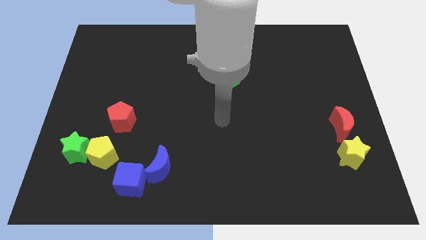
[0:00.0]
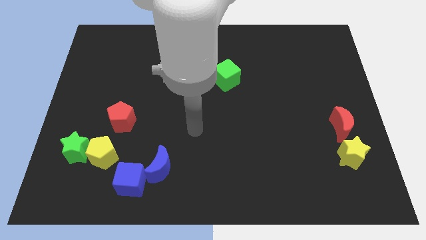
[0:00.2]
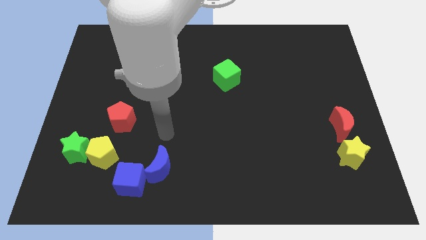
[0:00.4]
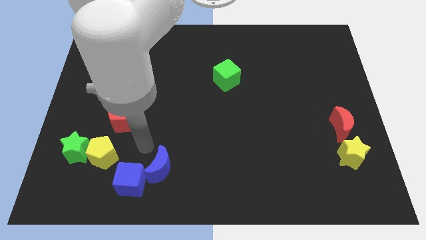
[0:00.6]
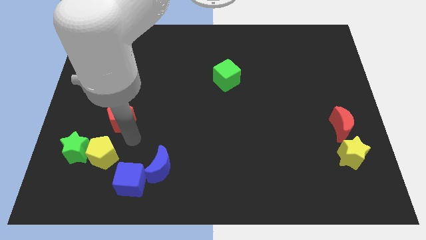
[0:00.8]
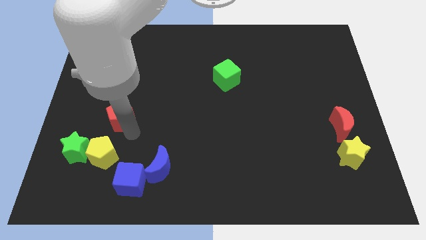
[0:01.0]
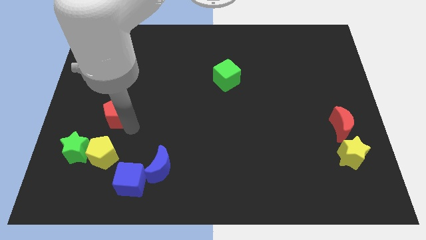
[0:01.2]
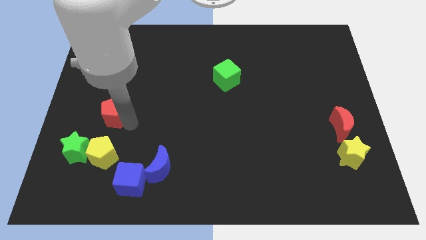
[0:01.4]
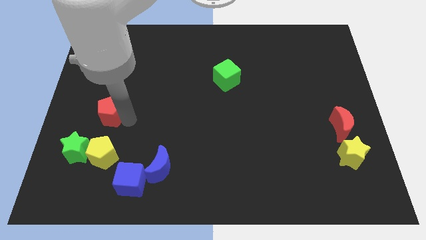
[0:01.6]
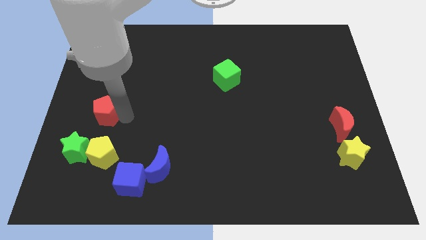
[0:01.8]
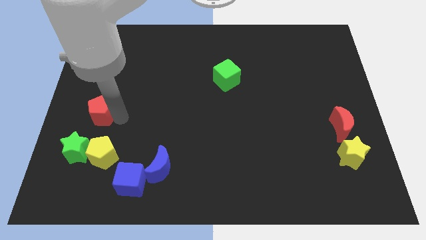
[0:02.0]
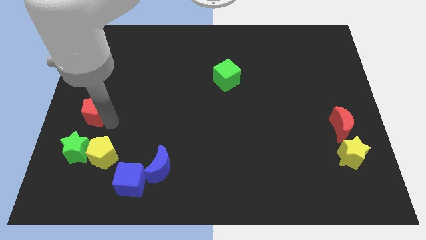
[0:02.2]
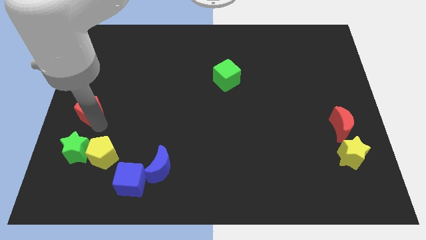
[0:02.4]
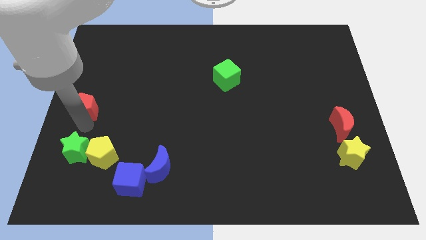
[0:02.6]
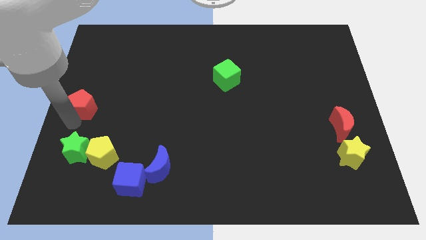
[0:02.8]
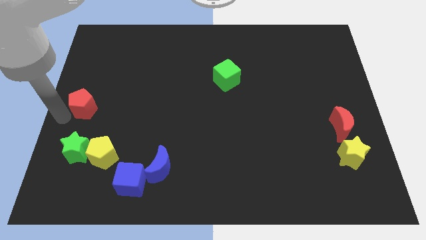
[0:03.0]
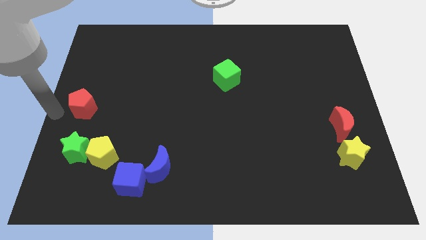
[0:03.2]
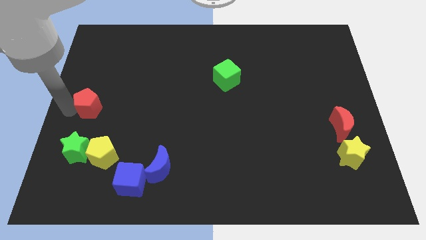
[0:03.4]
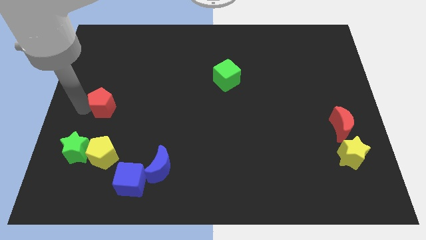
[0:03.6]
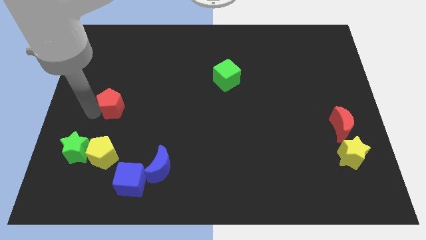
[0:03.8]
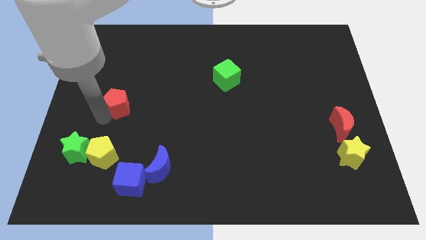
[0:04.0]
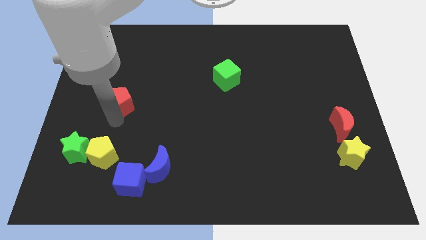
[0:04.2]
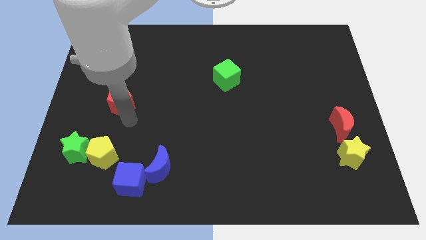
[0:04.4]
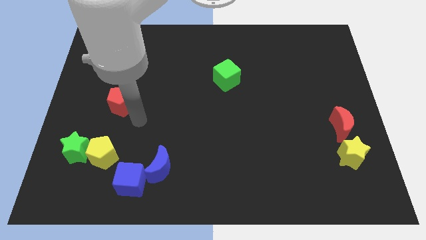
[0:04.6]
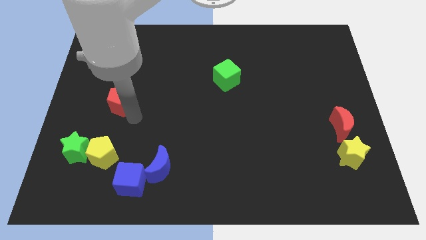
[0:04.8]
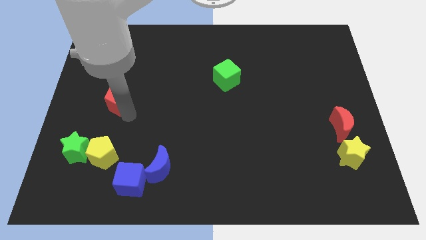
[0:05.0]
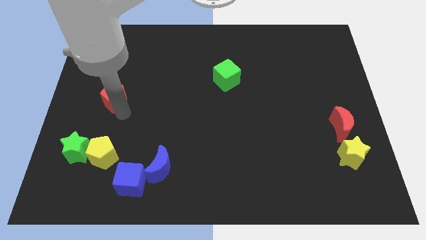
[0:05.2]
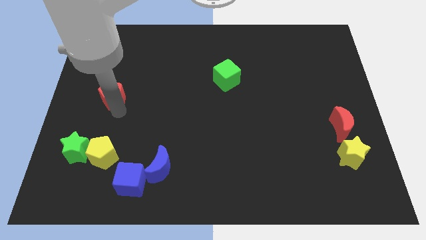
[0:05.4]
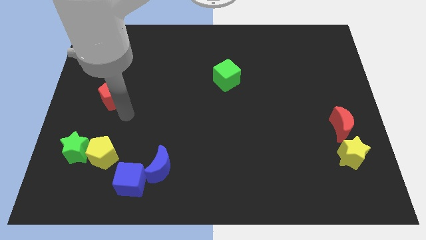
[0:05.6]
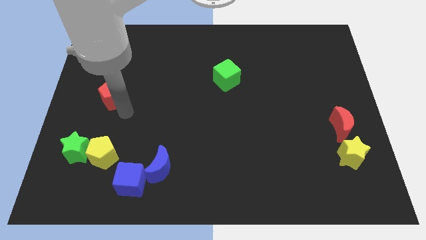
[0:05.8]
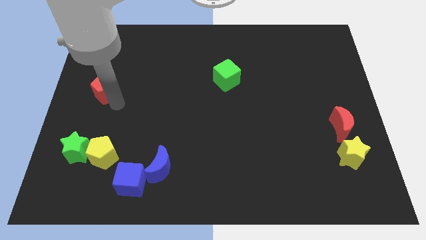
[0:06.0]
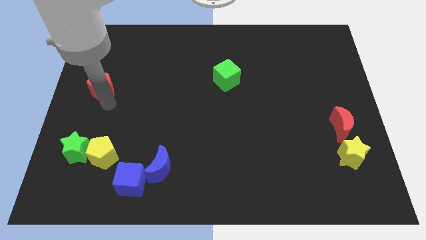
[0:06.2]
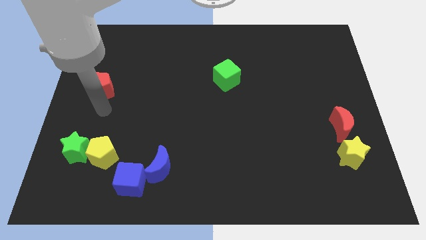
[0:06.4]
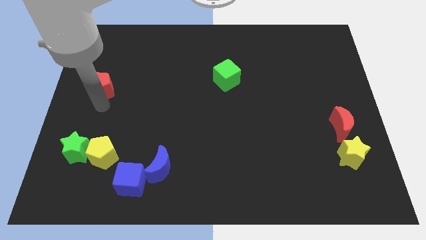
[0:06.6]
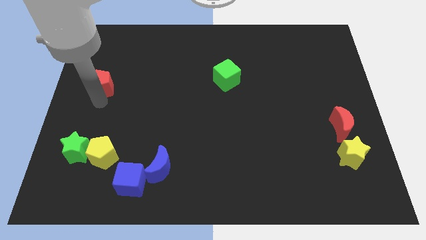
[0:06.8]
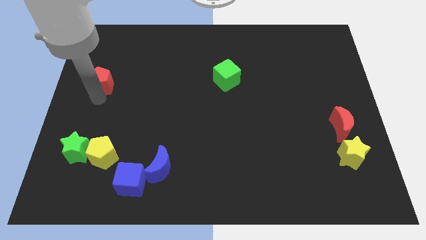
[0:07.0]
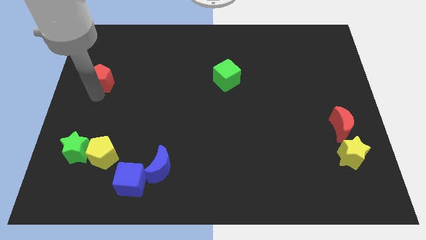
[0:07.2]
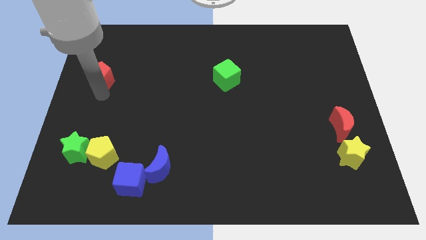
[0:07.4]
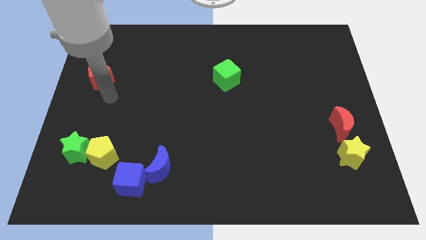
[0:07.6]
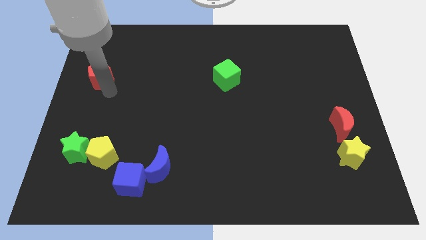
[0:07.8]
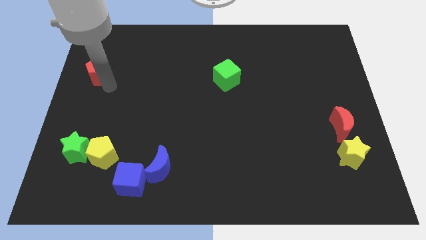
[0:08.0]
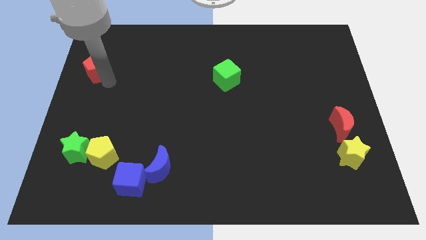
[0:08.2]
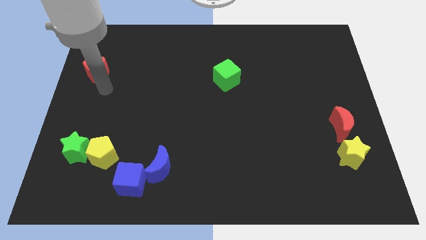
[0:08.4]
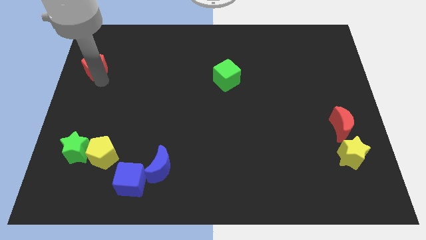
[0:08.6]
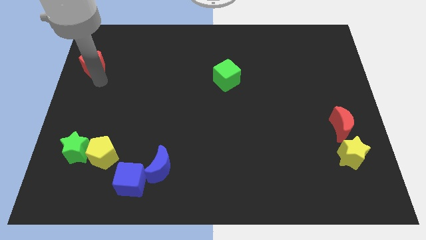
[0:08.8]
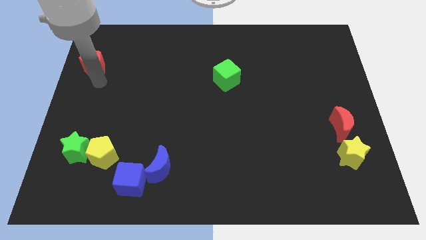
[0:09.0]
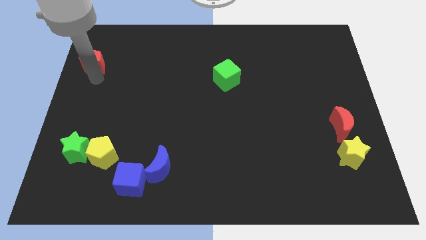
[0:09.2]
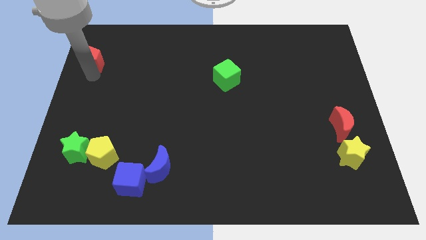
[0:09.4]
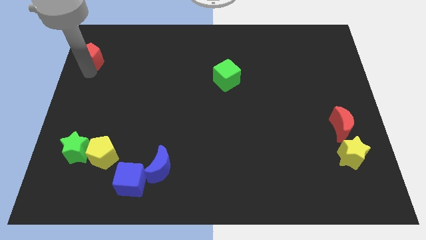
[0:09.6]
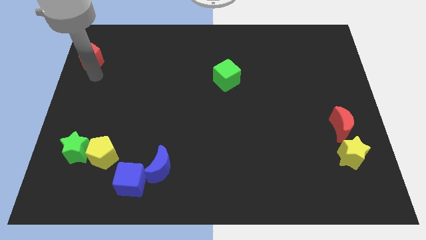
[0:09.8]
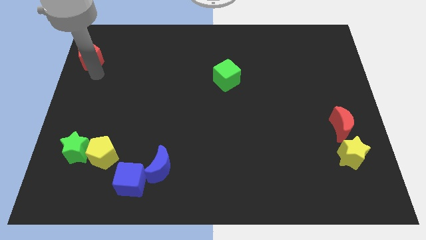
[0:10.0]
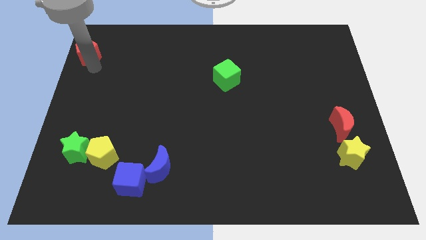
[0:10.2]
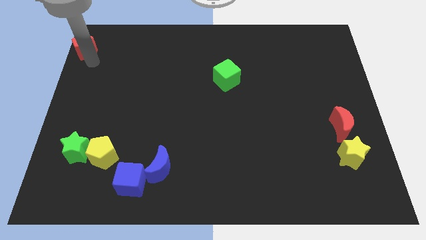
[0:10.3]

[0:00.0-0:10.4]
slide the red pentagon to the top left corner

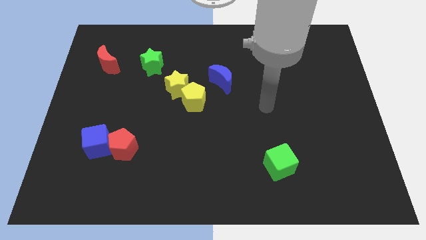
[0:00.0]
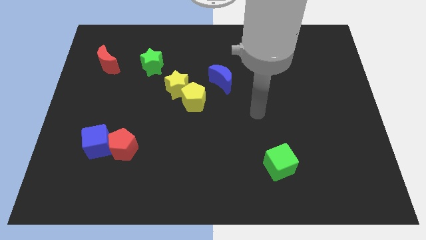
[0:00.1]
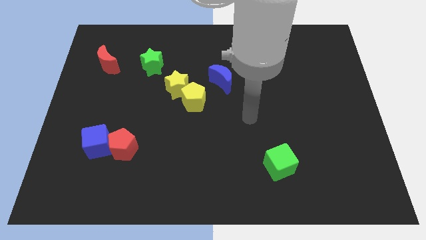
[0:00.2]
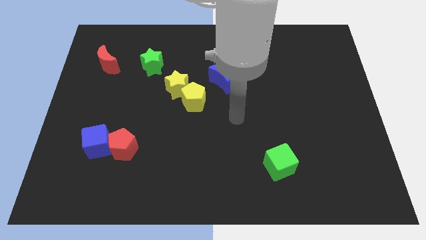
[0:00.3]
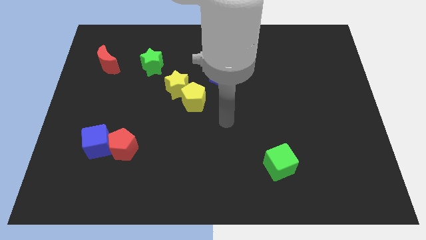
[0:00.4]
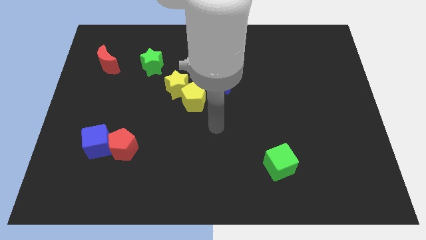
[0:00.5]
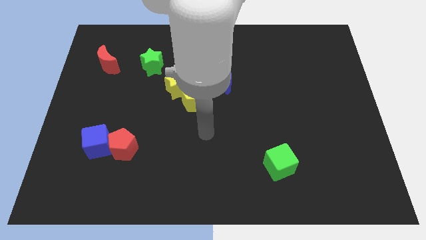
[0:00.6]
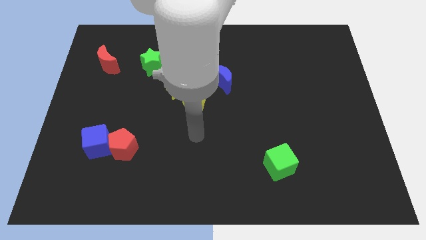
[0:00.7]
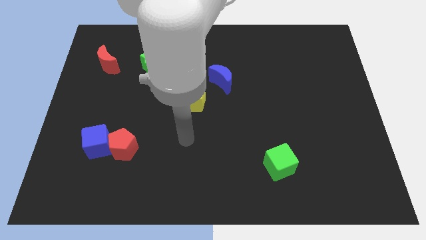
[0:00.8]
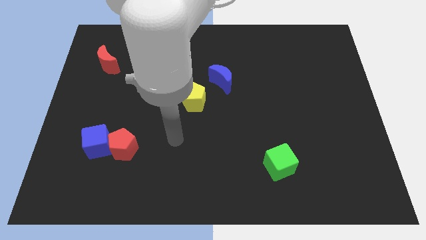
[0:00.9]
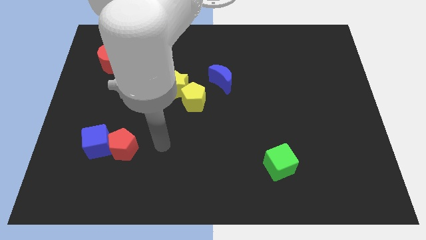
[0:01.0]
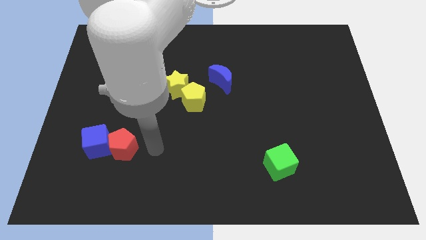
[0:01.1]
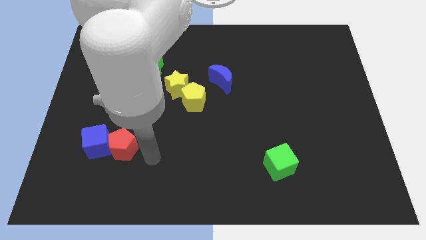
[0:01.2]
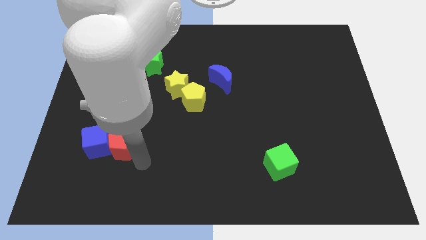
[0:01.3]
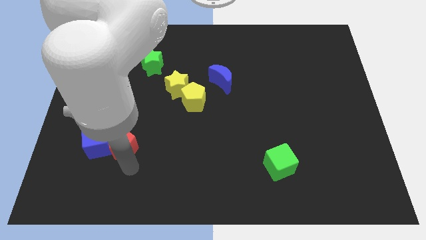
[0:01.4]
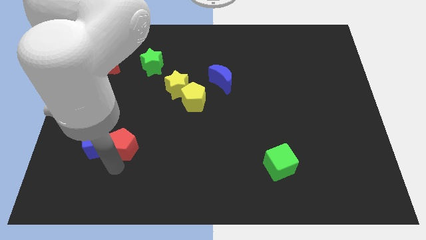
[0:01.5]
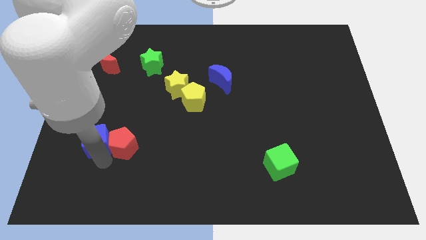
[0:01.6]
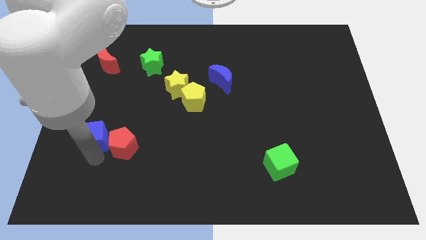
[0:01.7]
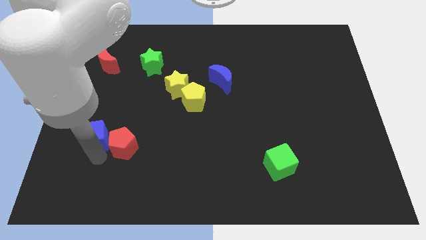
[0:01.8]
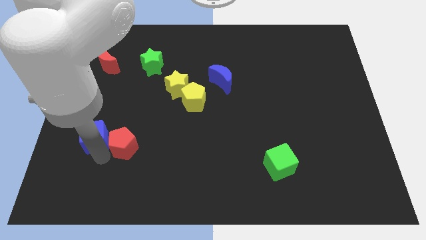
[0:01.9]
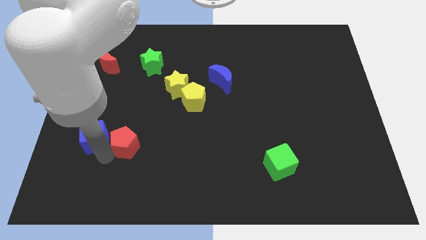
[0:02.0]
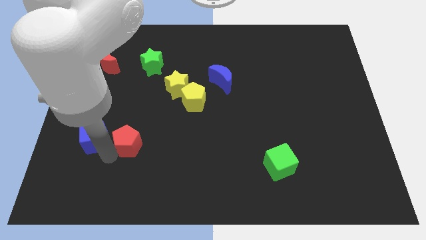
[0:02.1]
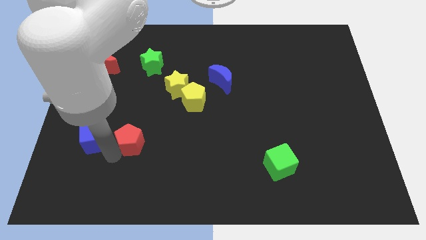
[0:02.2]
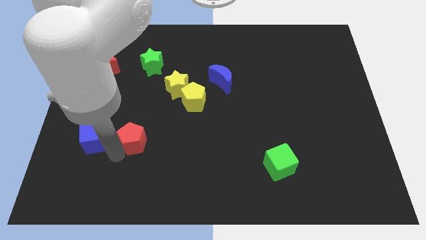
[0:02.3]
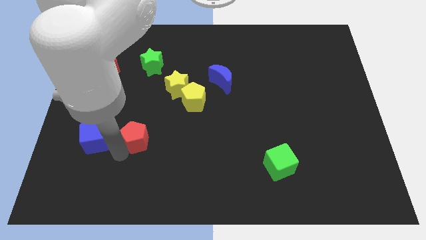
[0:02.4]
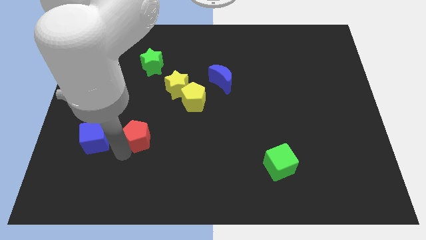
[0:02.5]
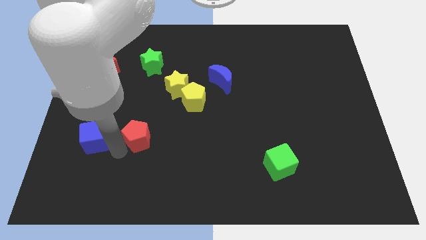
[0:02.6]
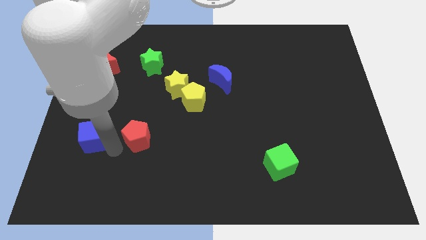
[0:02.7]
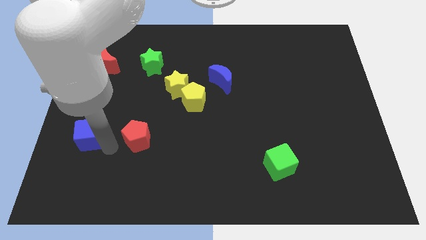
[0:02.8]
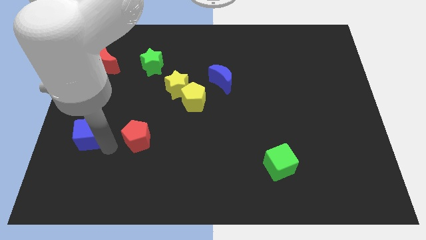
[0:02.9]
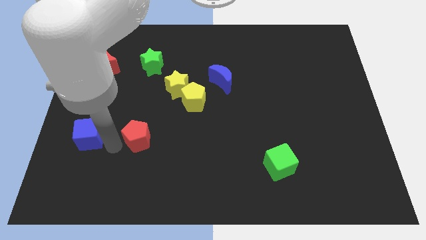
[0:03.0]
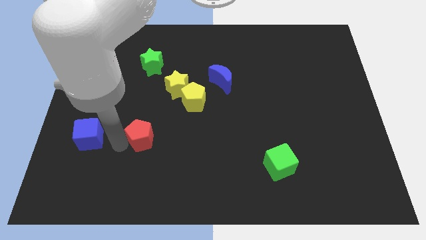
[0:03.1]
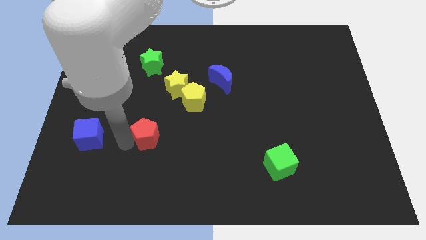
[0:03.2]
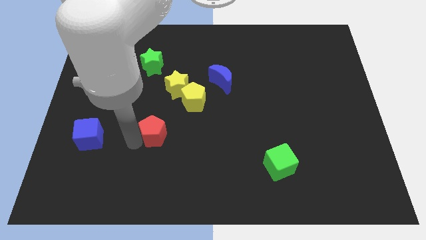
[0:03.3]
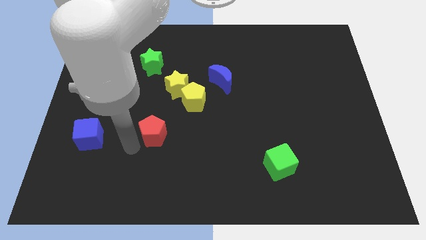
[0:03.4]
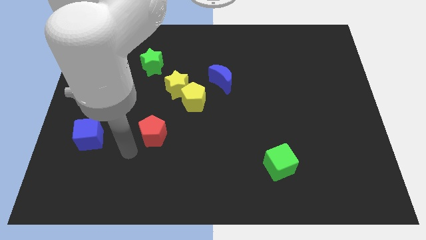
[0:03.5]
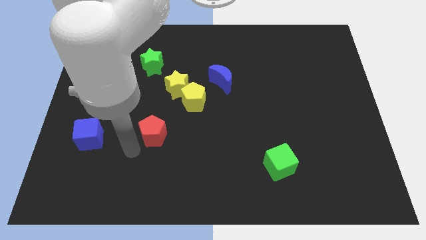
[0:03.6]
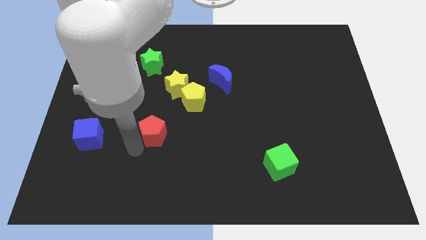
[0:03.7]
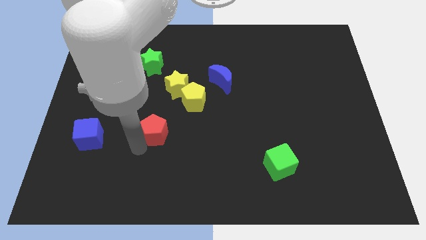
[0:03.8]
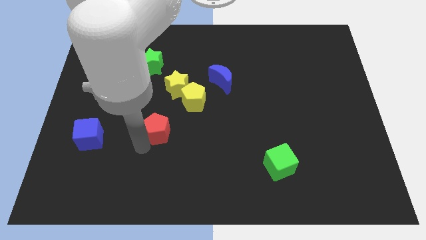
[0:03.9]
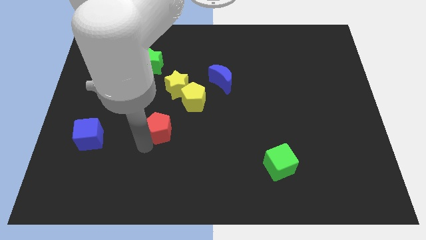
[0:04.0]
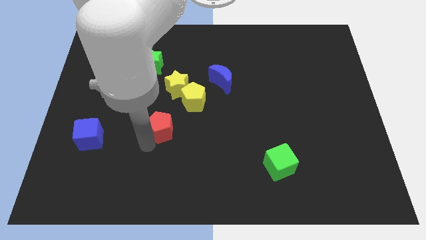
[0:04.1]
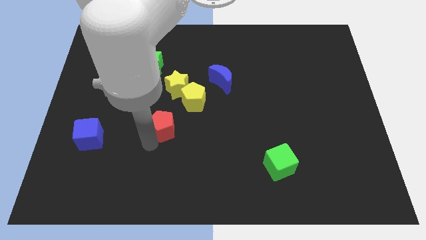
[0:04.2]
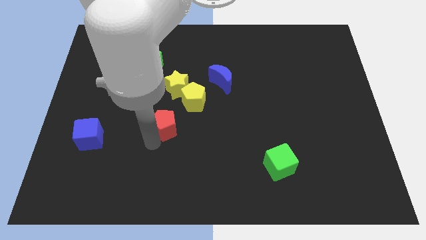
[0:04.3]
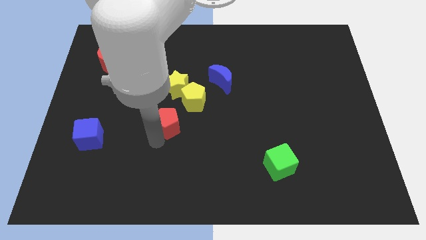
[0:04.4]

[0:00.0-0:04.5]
push the red pentagon to the center
